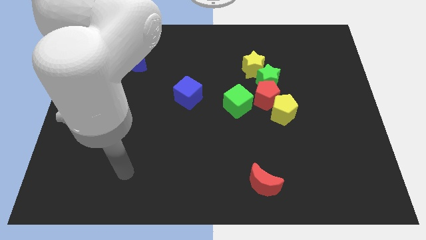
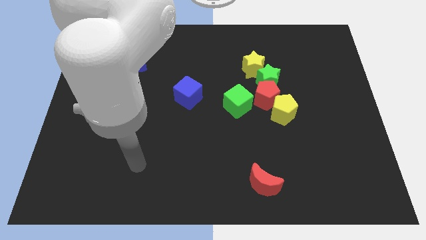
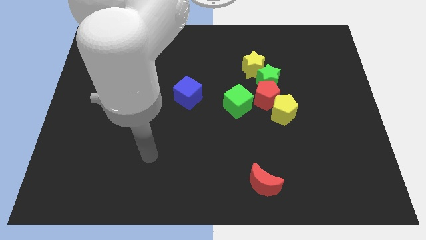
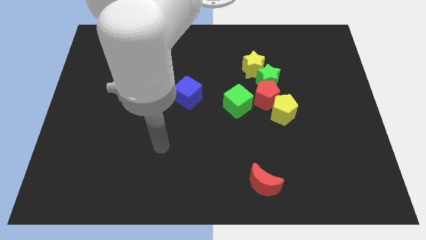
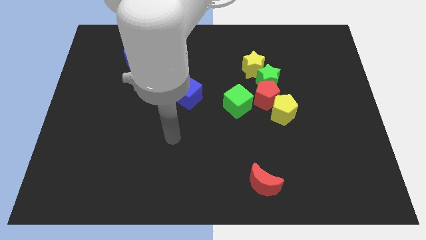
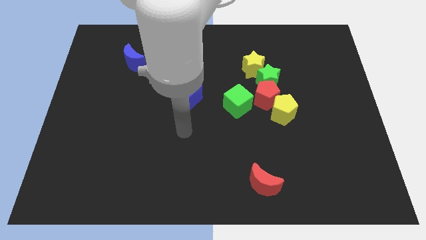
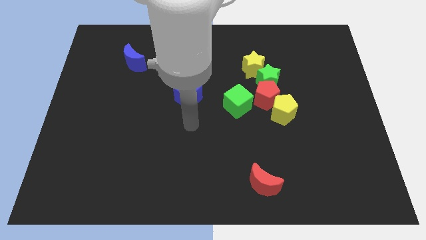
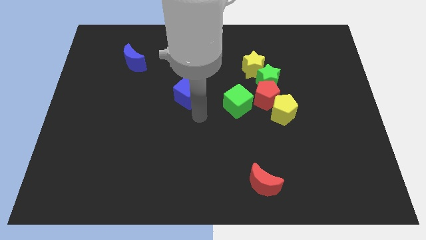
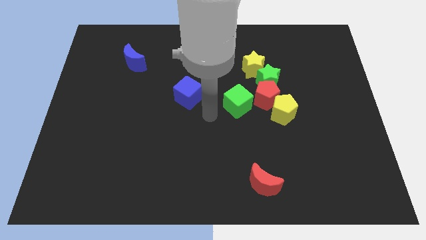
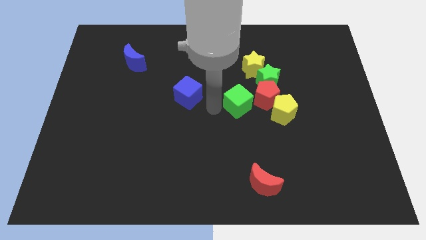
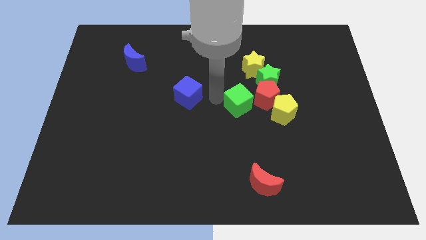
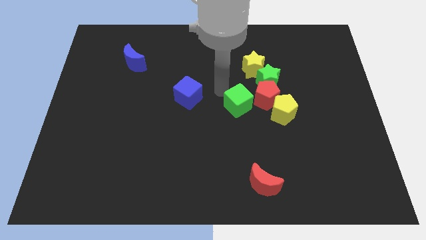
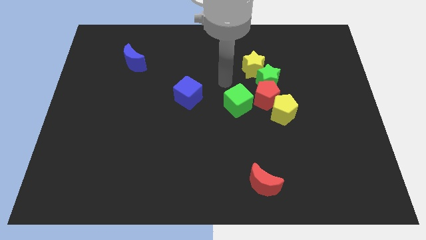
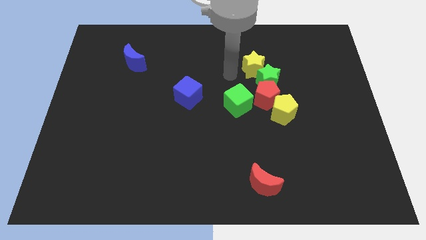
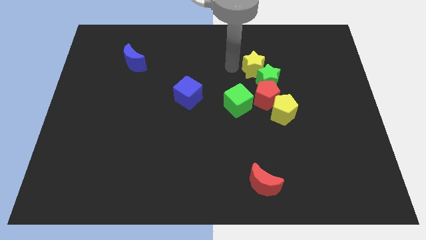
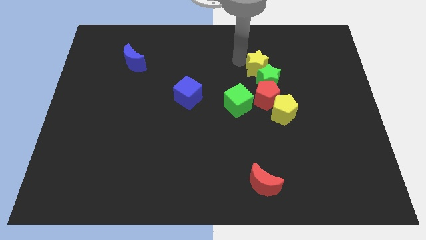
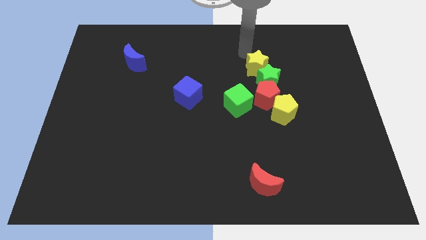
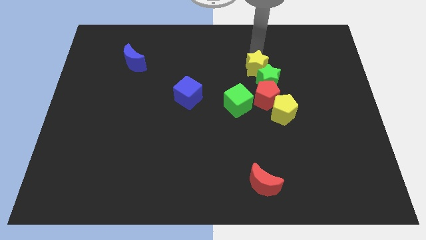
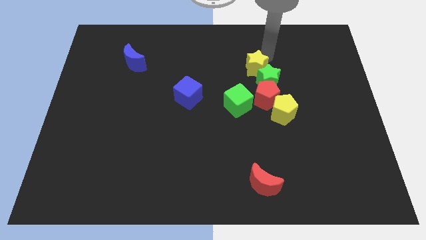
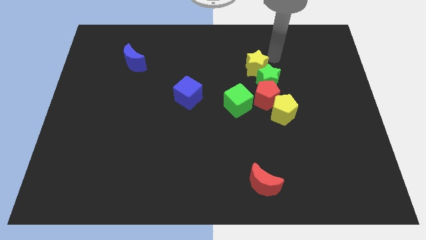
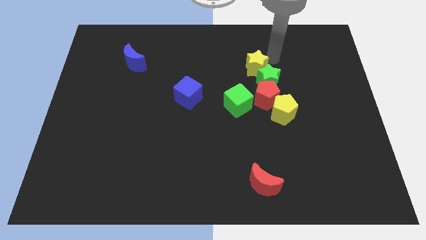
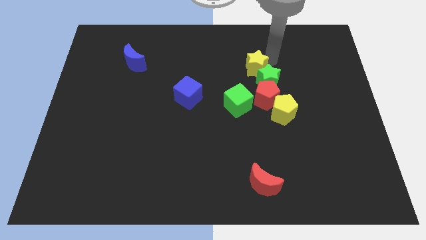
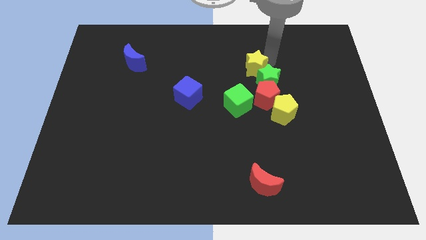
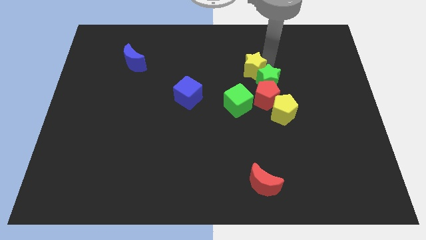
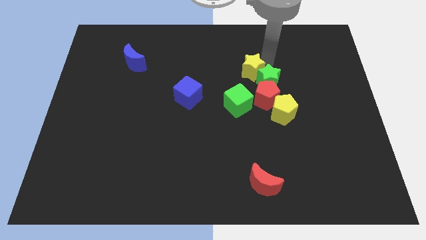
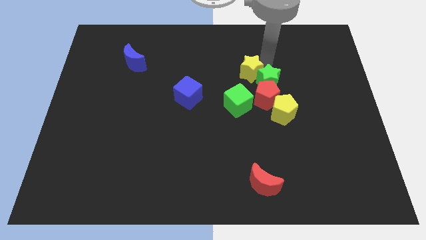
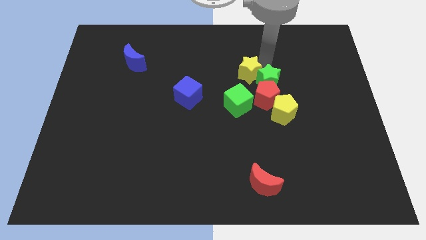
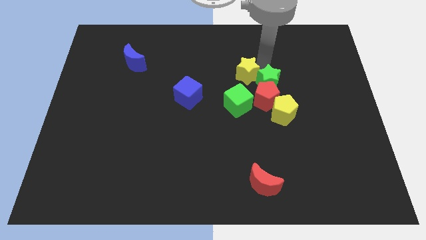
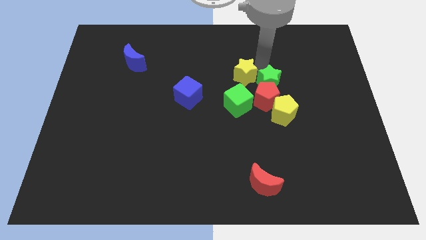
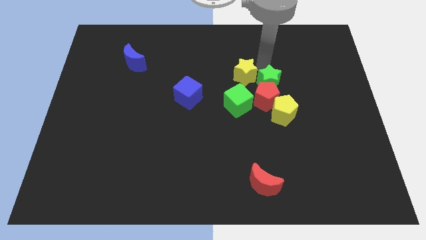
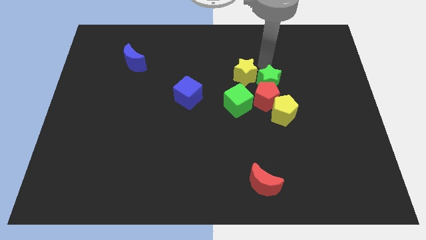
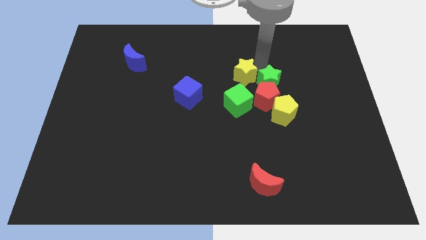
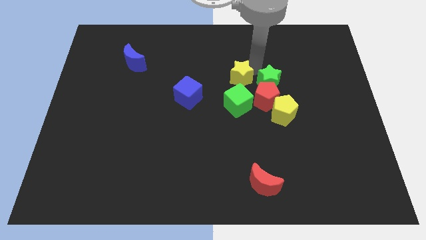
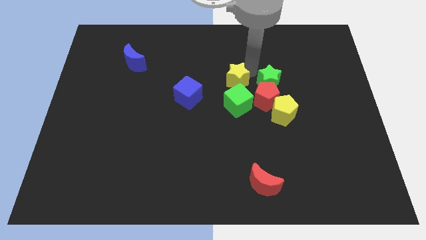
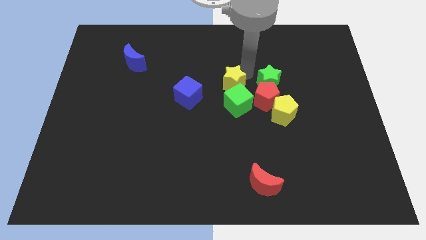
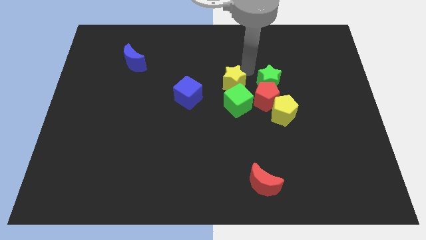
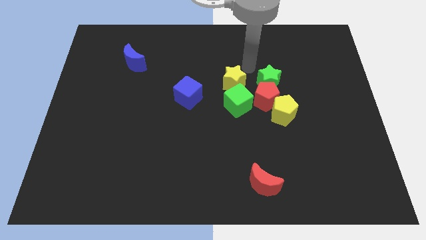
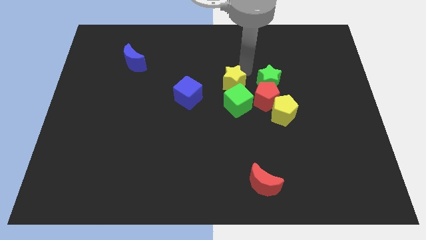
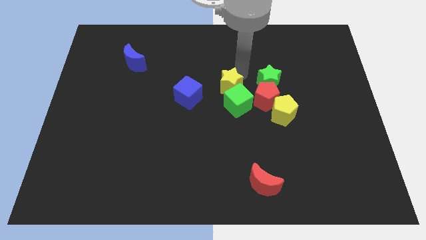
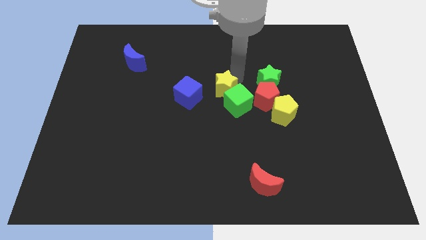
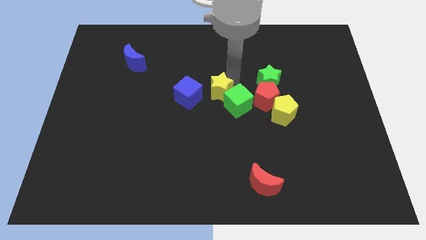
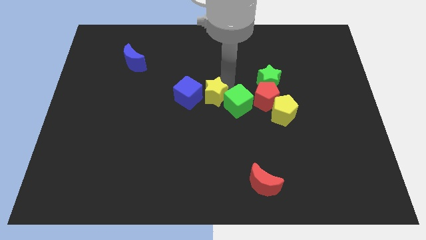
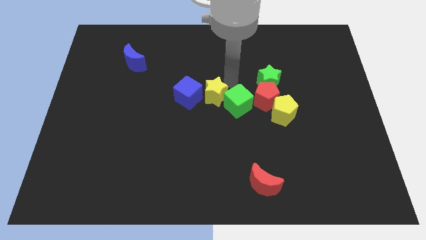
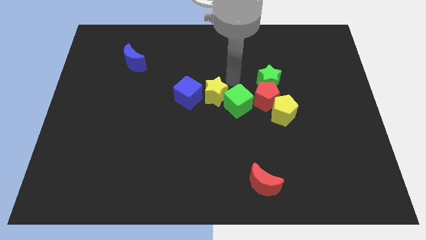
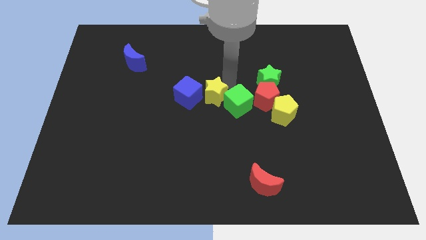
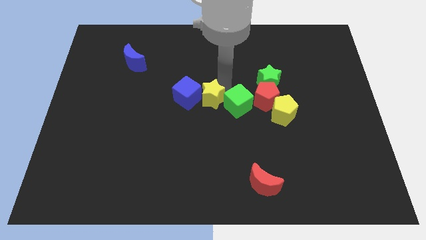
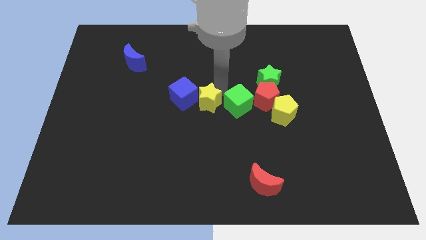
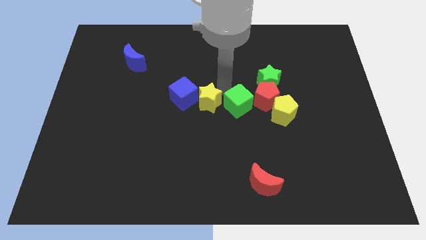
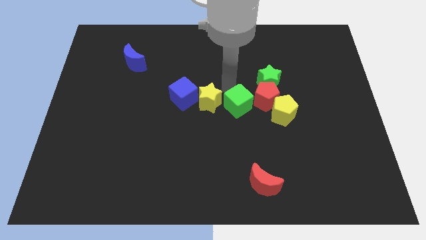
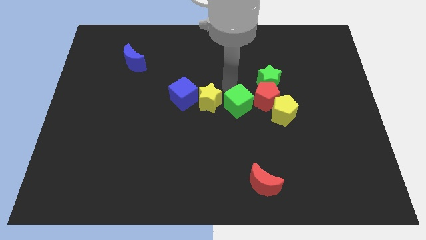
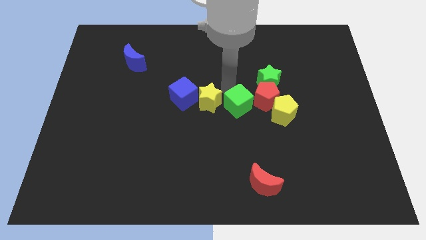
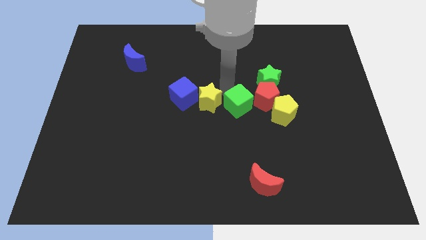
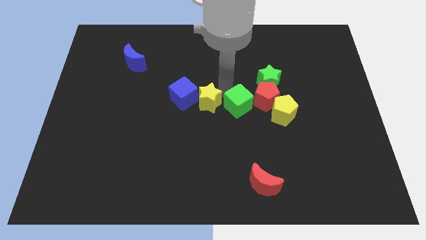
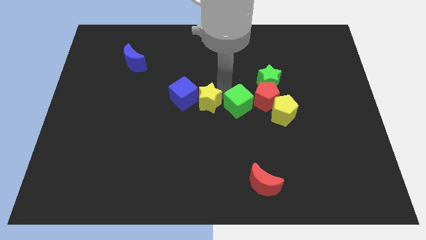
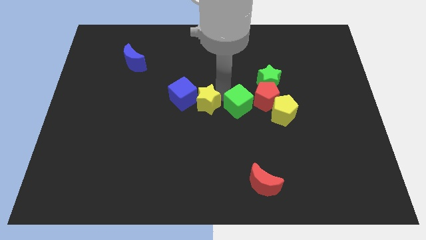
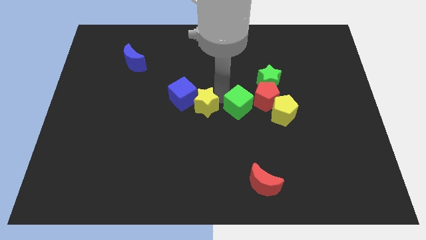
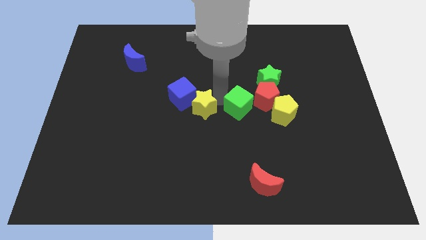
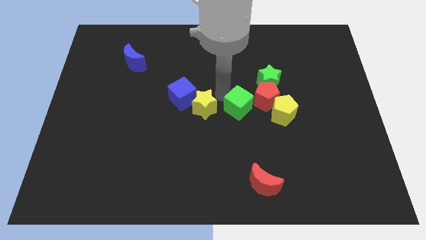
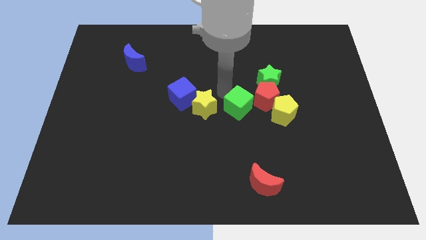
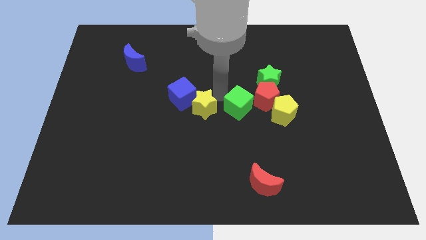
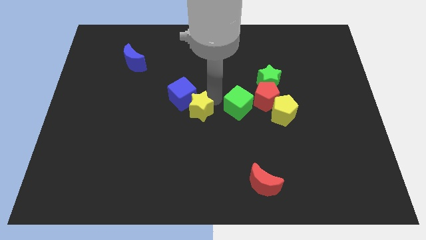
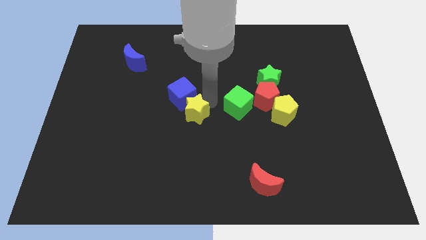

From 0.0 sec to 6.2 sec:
slide the yellow star down and to the left

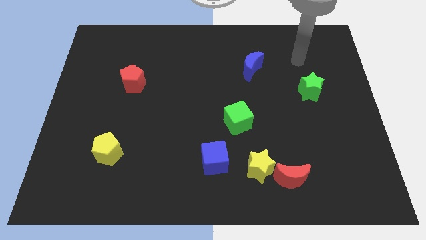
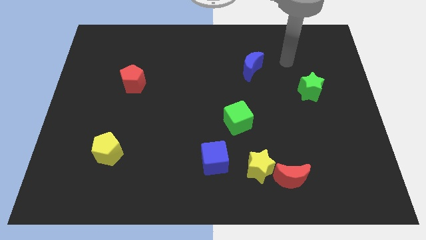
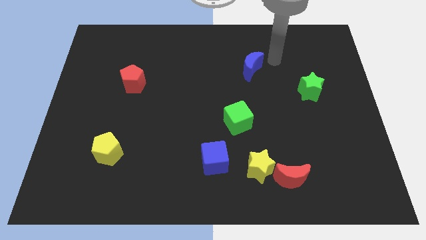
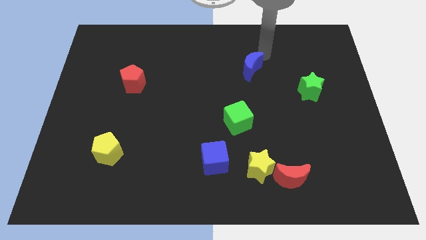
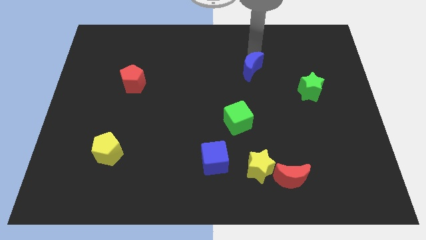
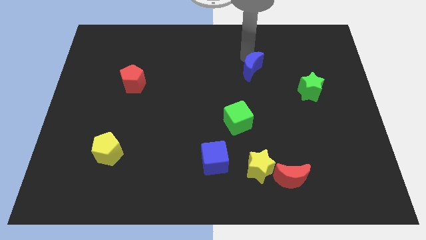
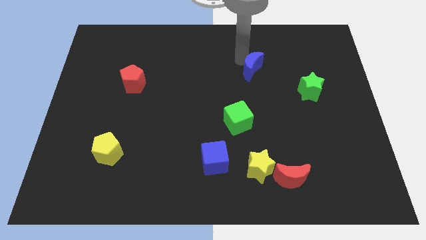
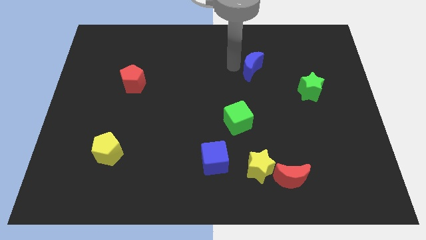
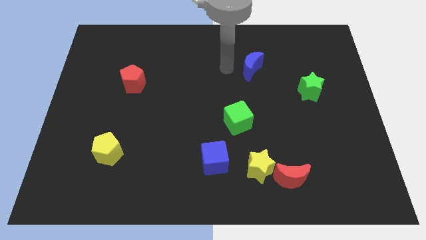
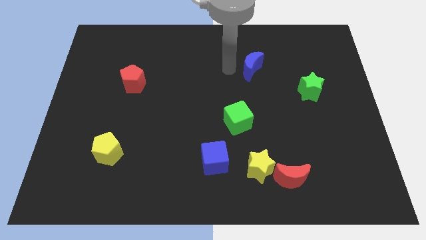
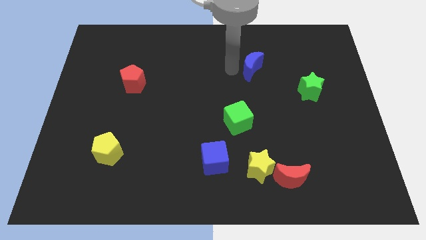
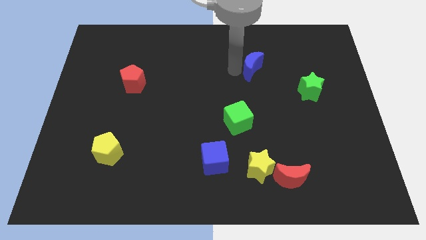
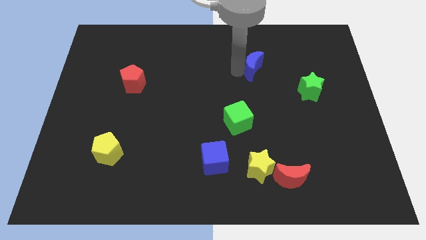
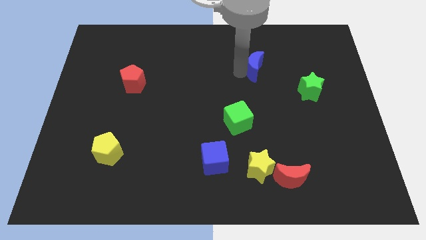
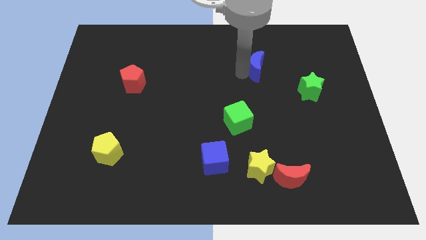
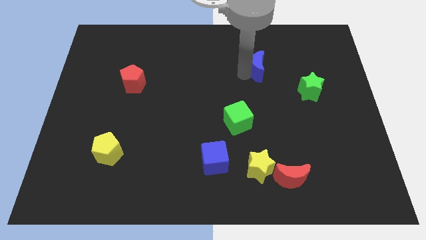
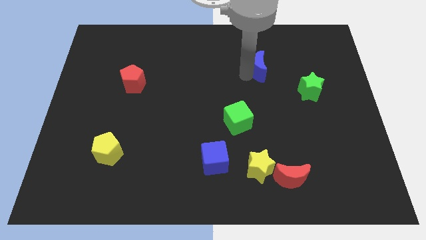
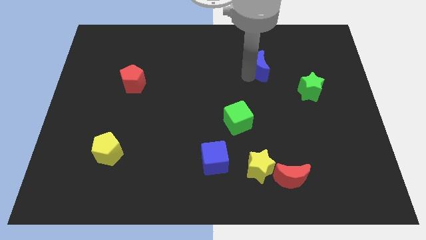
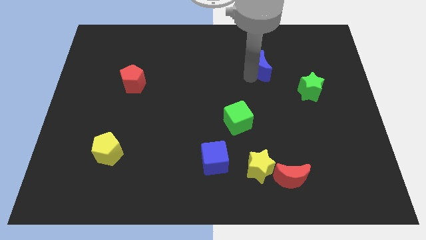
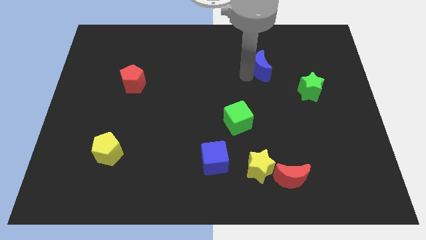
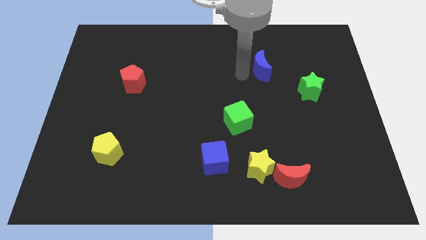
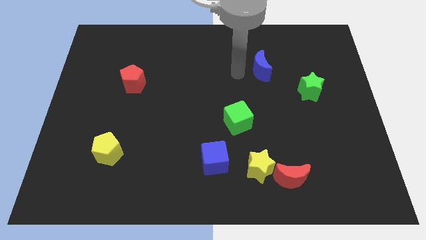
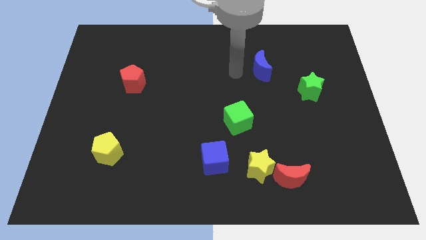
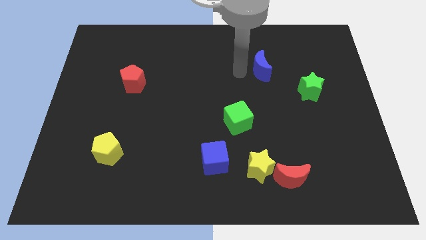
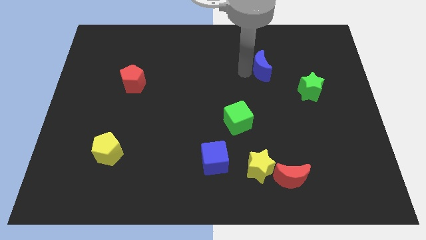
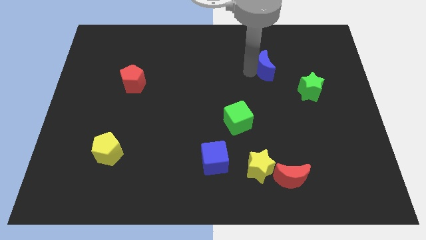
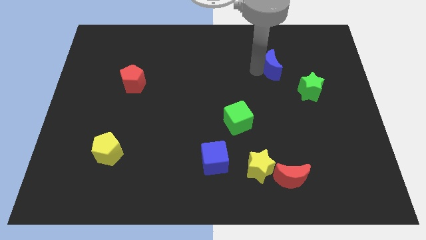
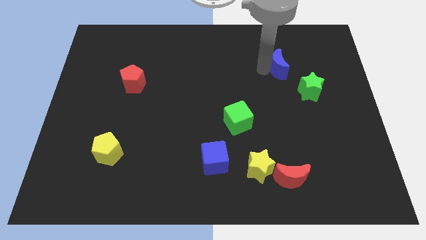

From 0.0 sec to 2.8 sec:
slide the blue moon to the right a little bit
